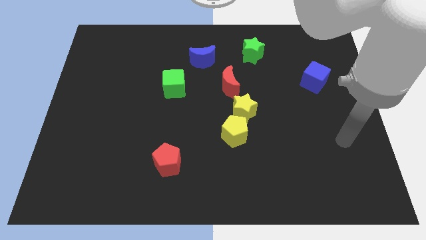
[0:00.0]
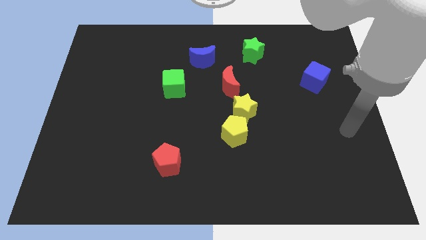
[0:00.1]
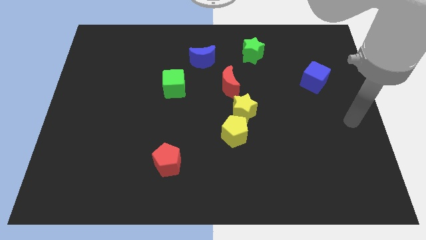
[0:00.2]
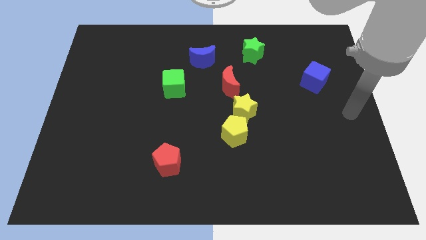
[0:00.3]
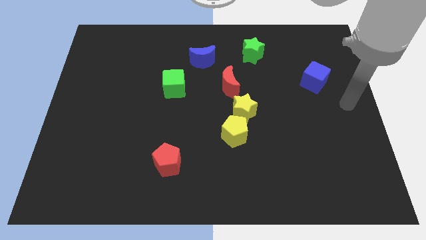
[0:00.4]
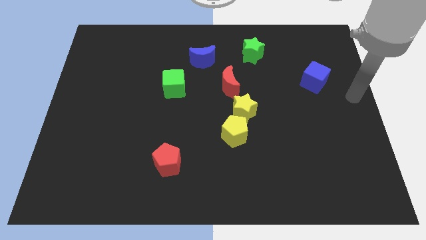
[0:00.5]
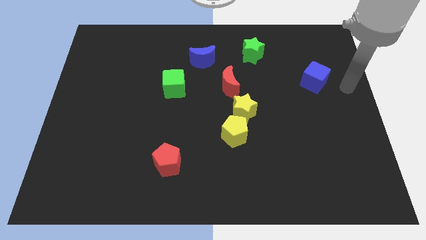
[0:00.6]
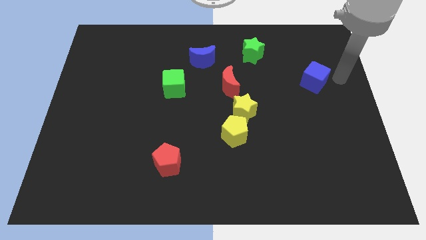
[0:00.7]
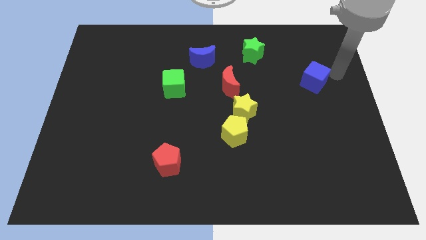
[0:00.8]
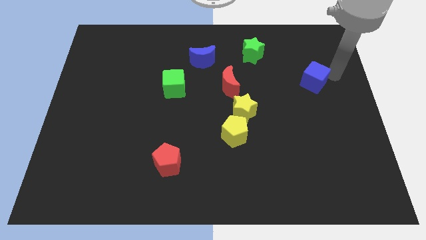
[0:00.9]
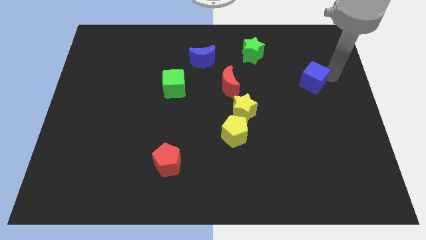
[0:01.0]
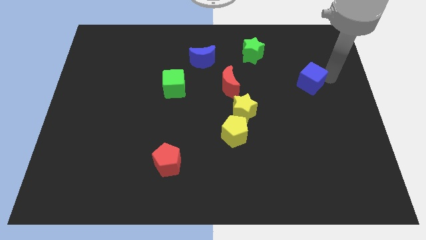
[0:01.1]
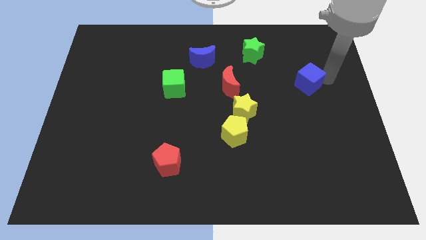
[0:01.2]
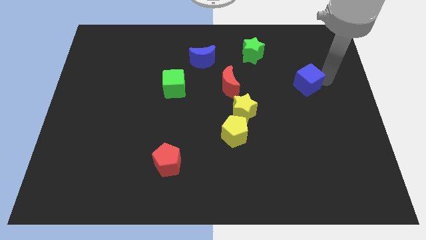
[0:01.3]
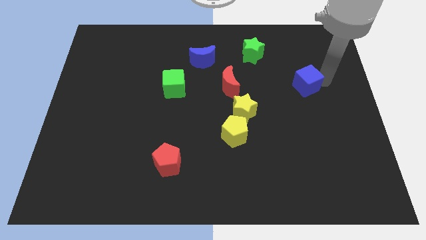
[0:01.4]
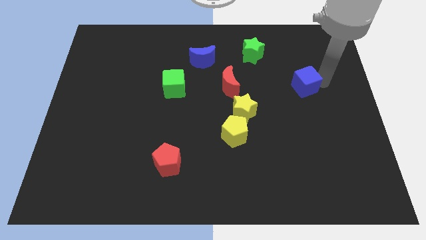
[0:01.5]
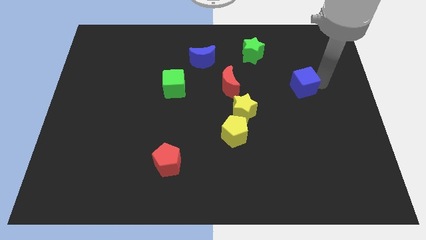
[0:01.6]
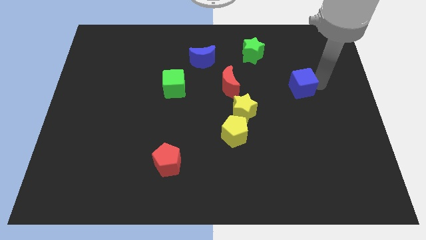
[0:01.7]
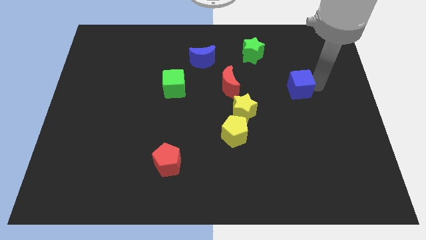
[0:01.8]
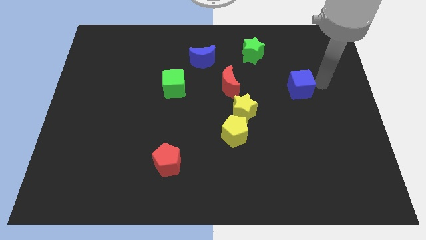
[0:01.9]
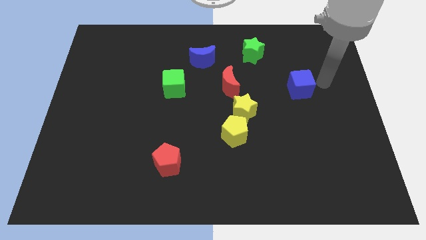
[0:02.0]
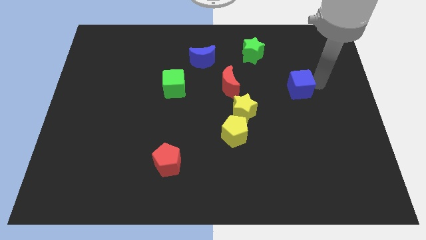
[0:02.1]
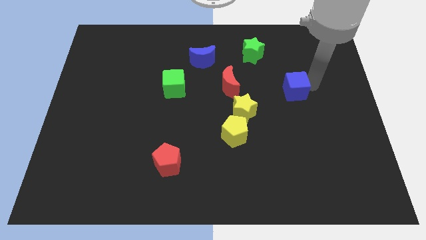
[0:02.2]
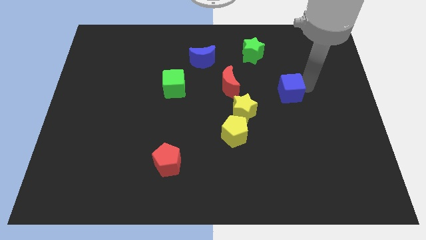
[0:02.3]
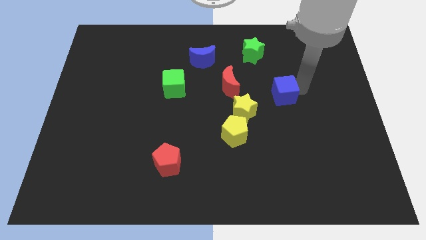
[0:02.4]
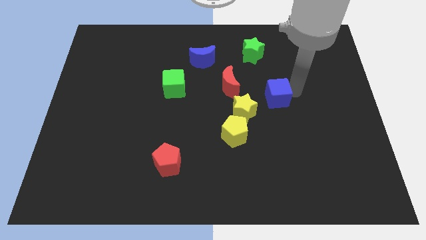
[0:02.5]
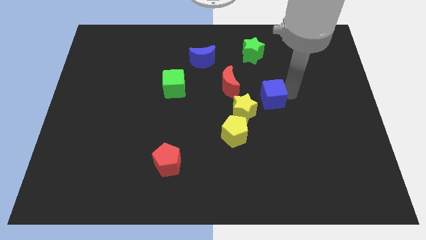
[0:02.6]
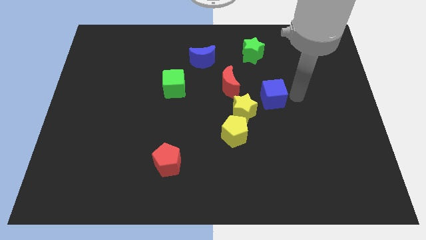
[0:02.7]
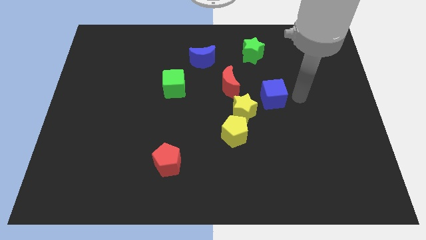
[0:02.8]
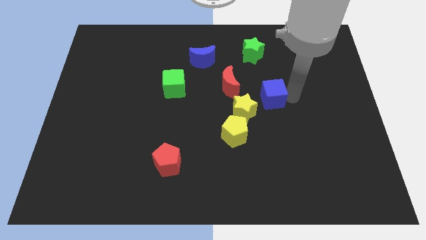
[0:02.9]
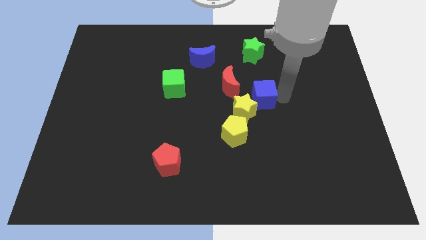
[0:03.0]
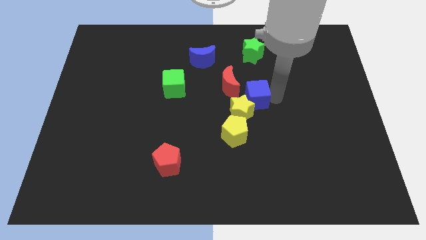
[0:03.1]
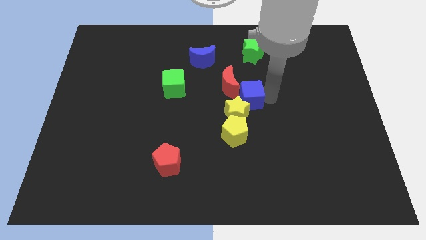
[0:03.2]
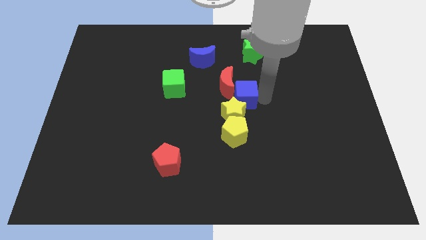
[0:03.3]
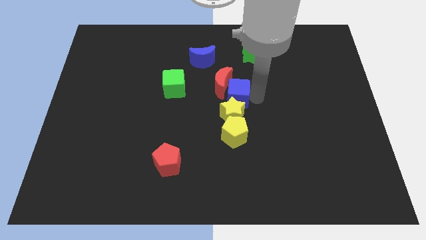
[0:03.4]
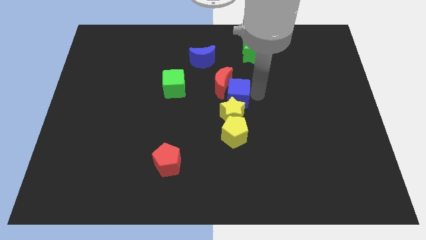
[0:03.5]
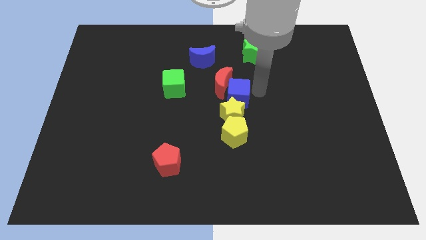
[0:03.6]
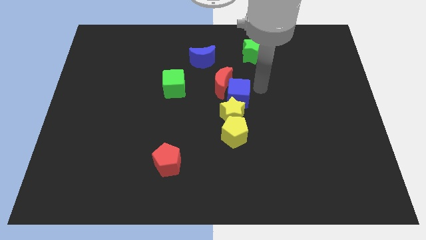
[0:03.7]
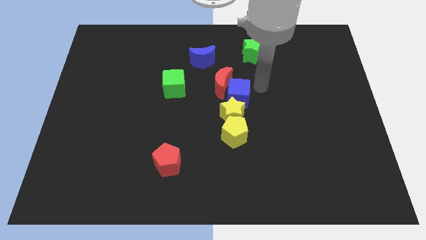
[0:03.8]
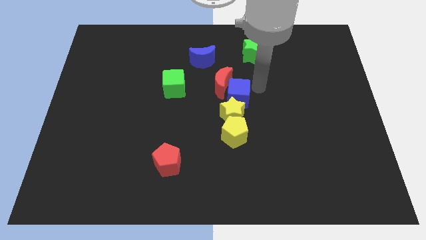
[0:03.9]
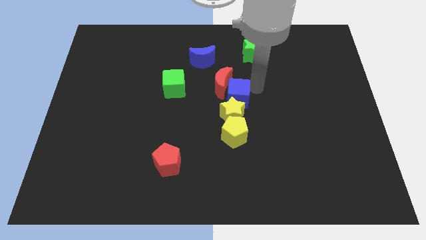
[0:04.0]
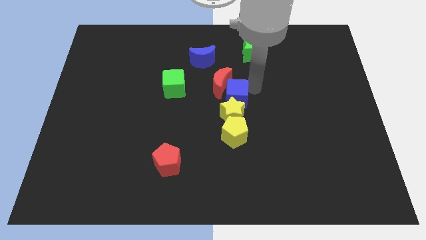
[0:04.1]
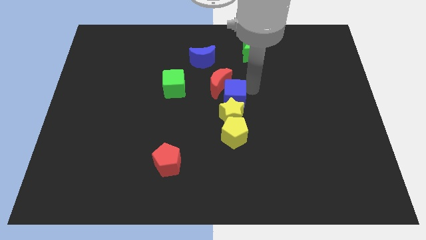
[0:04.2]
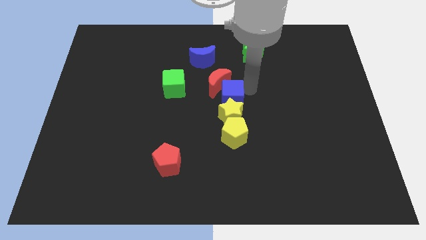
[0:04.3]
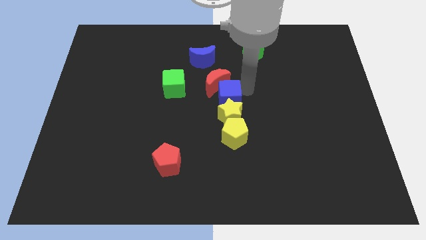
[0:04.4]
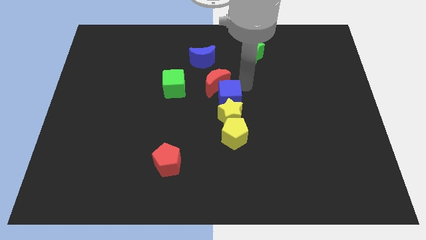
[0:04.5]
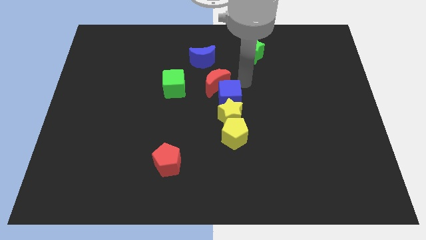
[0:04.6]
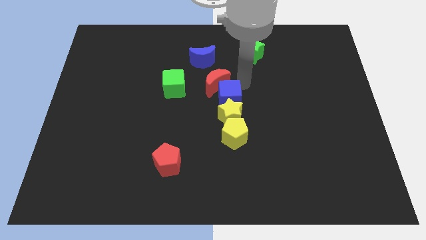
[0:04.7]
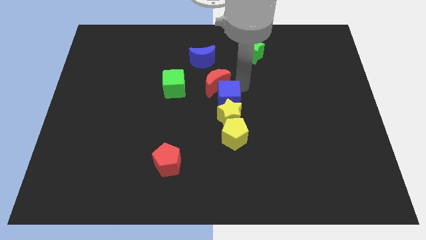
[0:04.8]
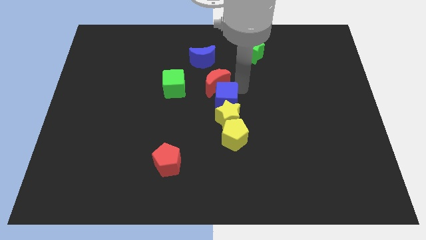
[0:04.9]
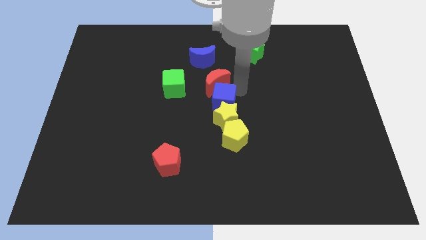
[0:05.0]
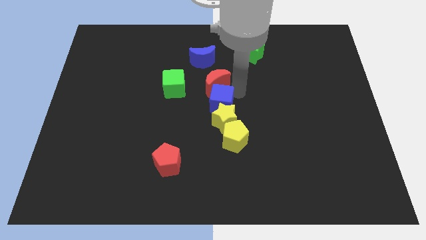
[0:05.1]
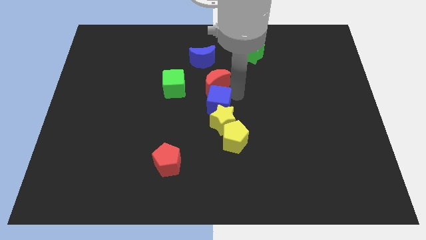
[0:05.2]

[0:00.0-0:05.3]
push the blue cube diagonally up and to the left of the yellow pentagon
